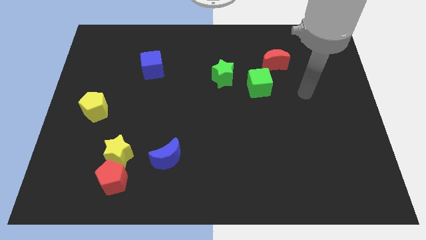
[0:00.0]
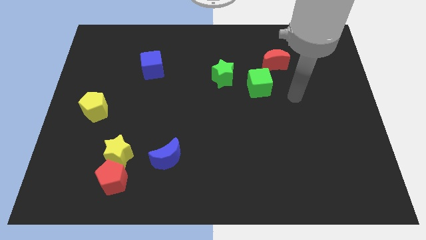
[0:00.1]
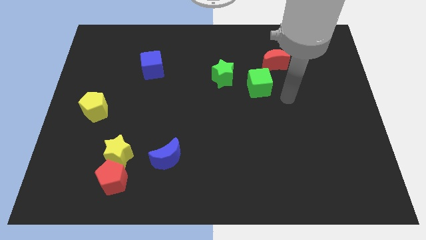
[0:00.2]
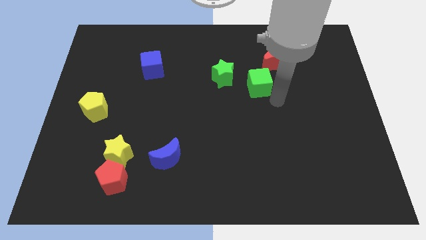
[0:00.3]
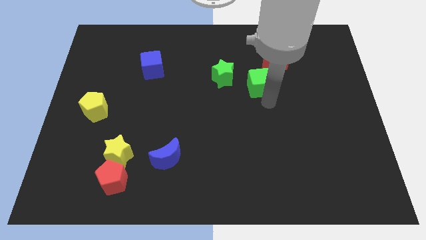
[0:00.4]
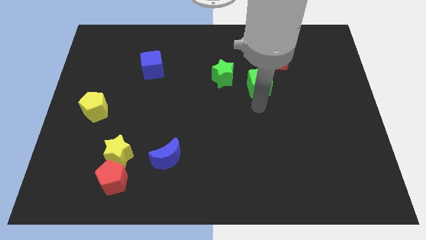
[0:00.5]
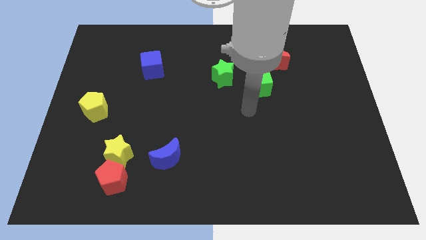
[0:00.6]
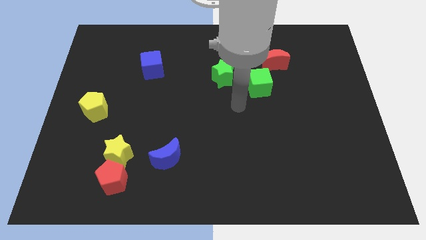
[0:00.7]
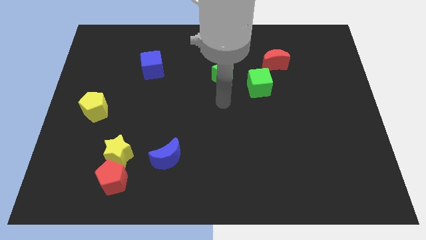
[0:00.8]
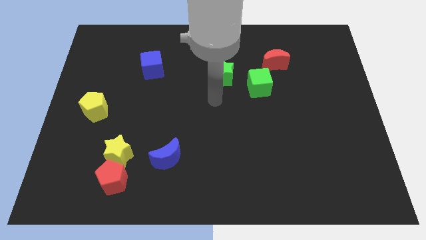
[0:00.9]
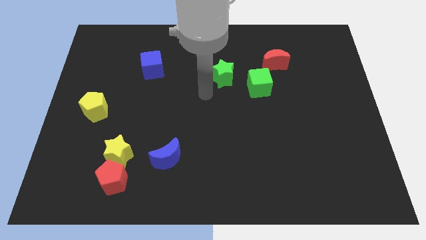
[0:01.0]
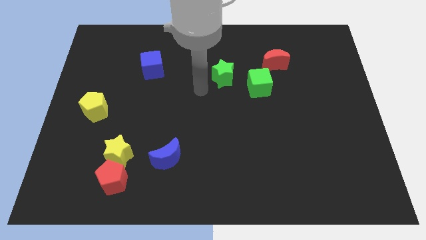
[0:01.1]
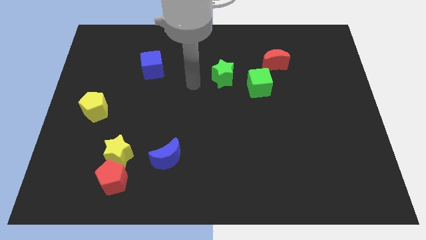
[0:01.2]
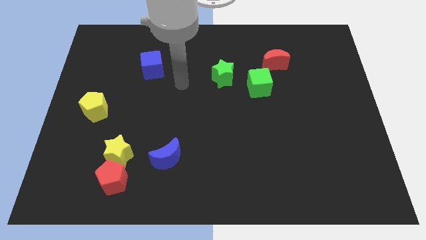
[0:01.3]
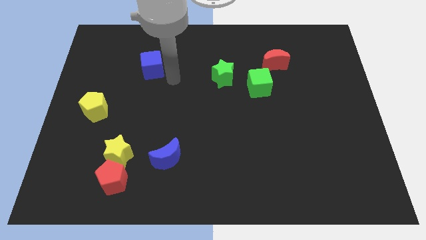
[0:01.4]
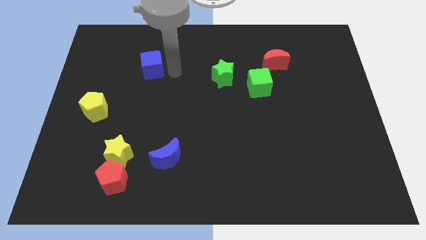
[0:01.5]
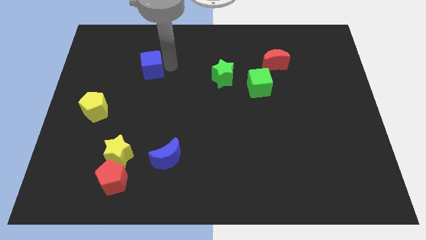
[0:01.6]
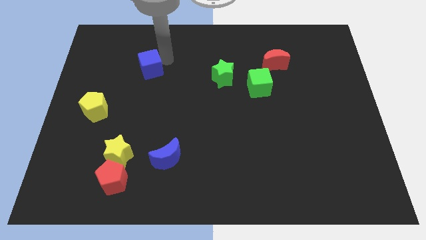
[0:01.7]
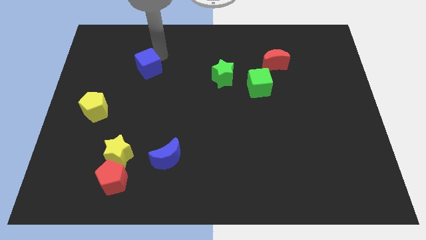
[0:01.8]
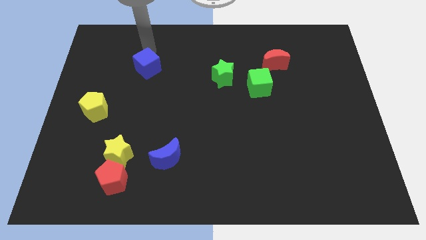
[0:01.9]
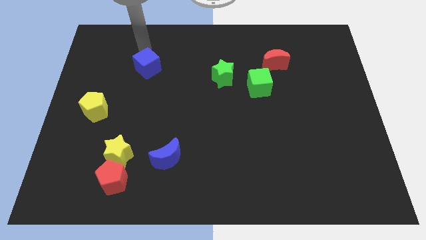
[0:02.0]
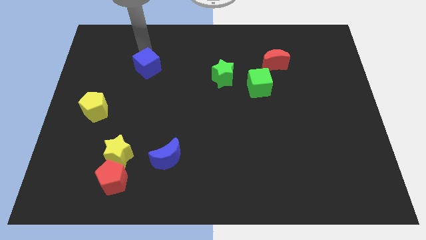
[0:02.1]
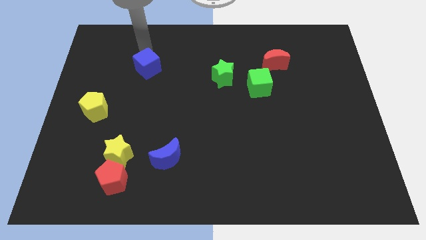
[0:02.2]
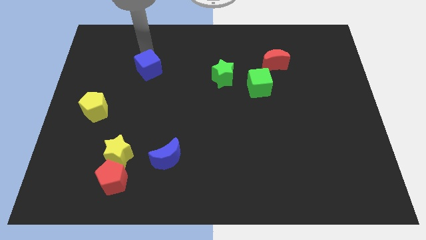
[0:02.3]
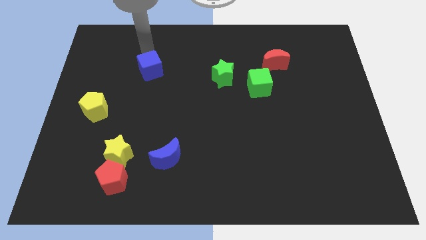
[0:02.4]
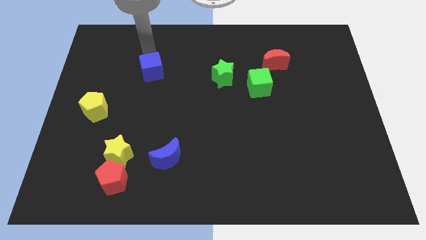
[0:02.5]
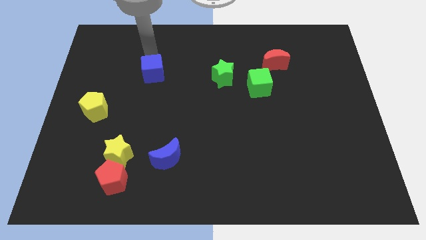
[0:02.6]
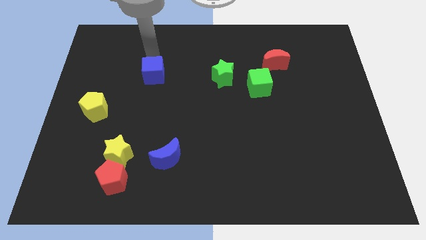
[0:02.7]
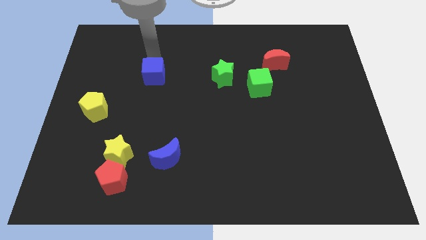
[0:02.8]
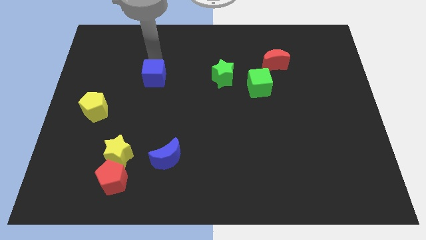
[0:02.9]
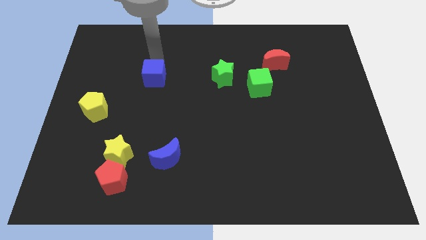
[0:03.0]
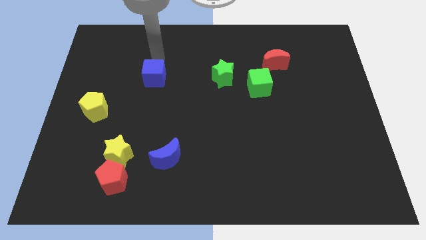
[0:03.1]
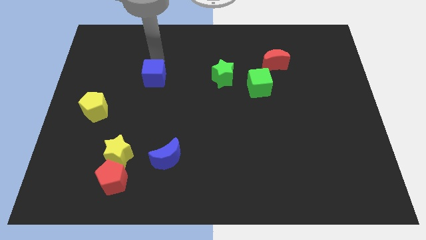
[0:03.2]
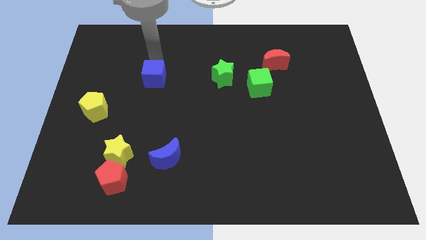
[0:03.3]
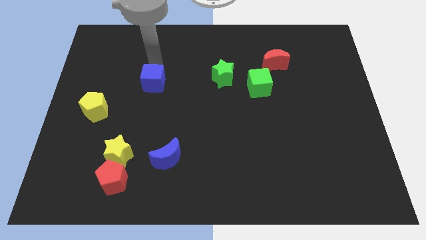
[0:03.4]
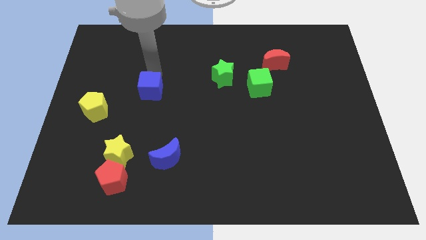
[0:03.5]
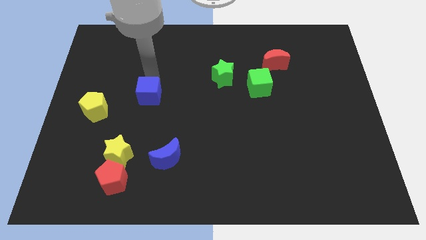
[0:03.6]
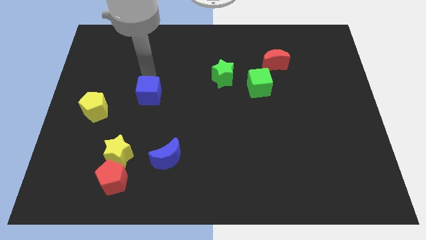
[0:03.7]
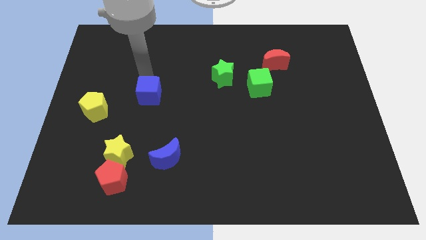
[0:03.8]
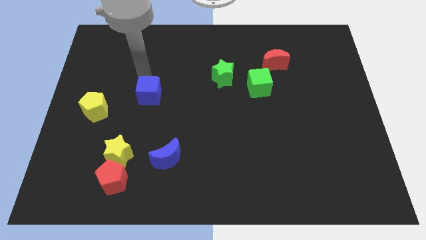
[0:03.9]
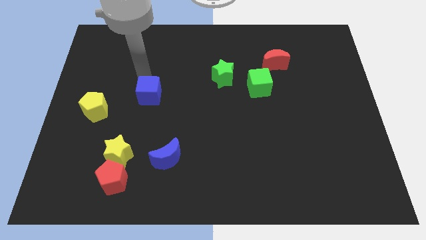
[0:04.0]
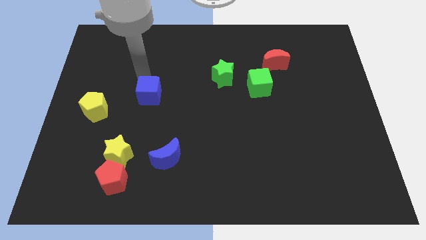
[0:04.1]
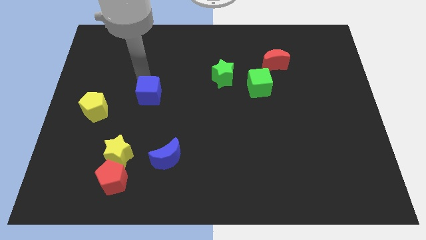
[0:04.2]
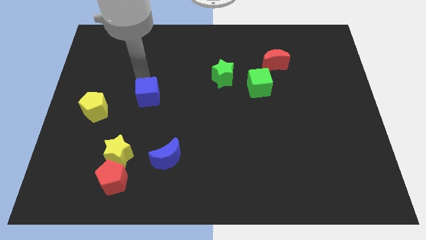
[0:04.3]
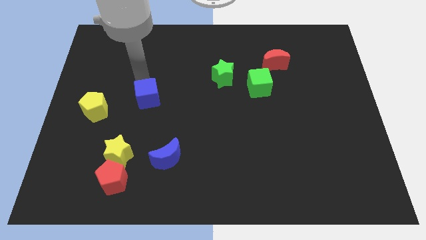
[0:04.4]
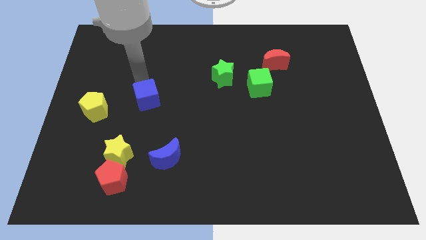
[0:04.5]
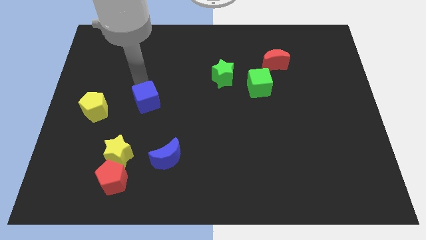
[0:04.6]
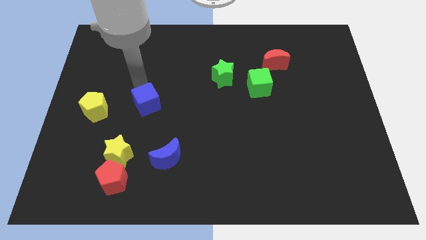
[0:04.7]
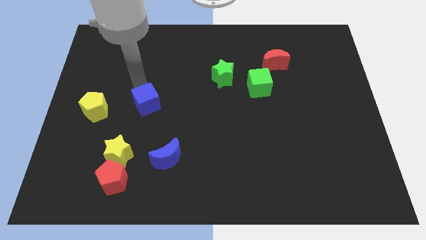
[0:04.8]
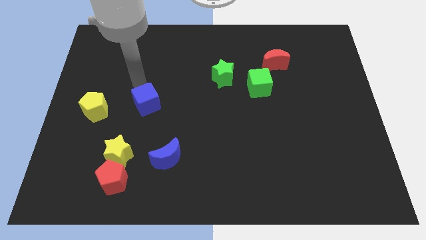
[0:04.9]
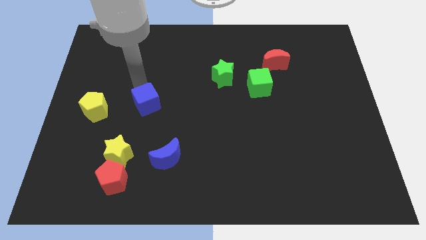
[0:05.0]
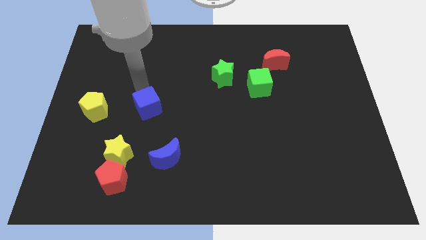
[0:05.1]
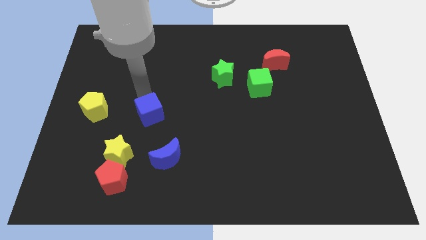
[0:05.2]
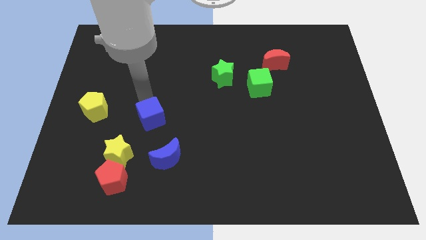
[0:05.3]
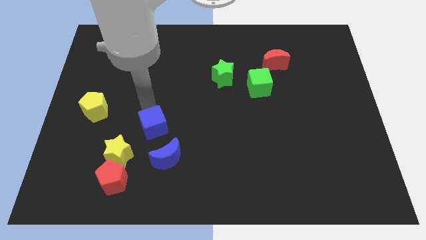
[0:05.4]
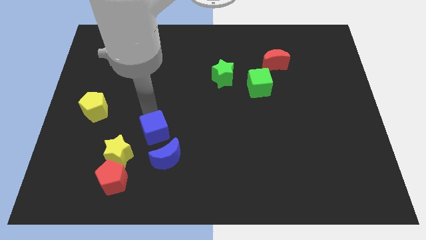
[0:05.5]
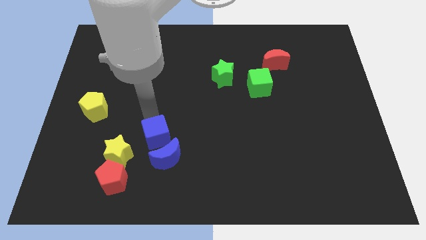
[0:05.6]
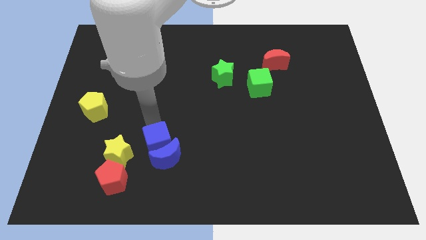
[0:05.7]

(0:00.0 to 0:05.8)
push the blue cube towards the blue moon

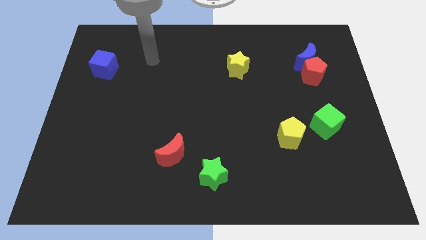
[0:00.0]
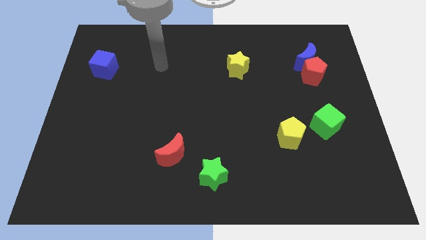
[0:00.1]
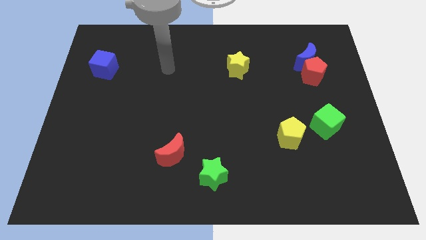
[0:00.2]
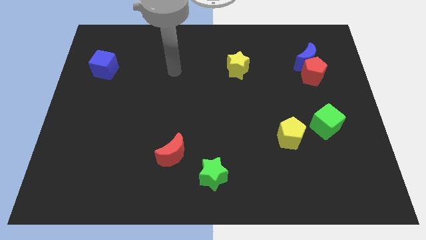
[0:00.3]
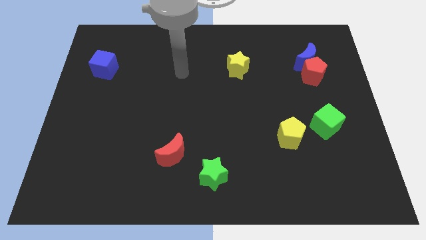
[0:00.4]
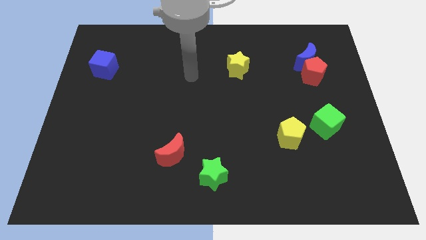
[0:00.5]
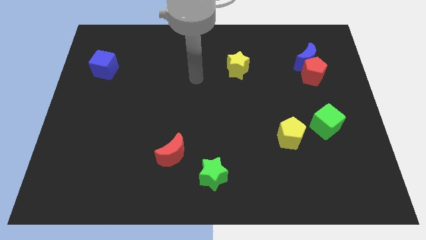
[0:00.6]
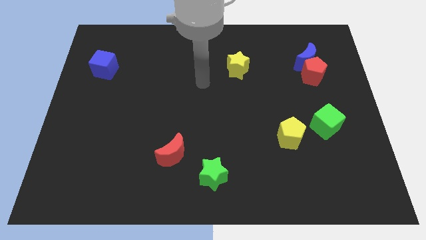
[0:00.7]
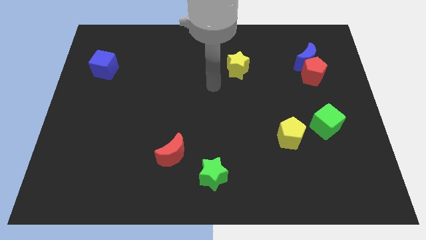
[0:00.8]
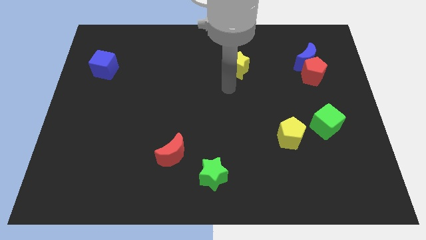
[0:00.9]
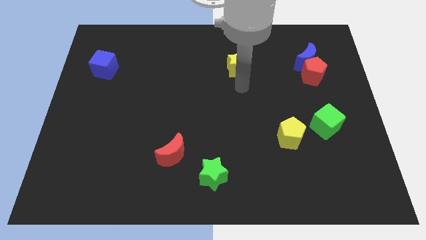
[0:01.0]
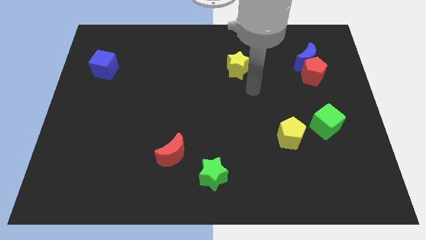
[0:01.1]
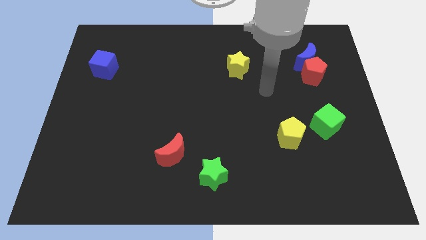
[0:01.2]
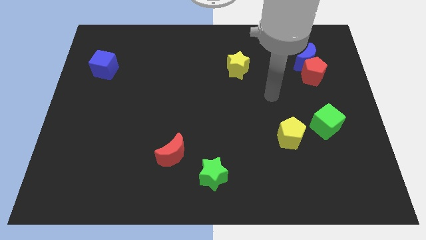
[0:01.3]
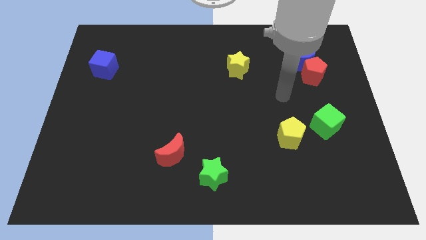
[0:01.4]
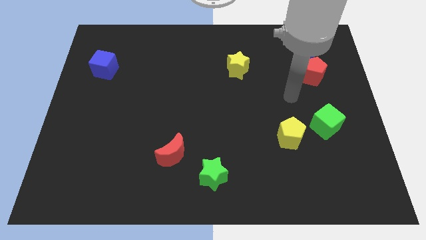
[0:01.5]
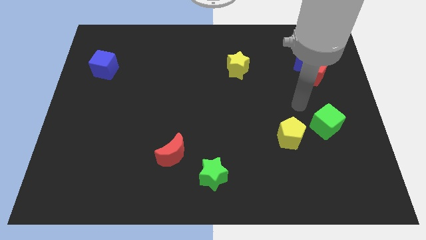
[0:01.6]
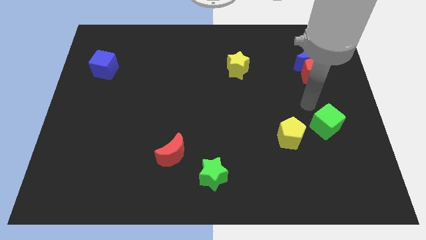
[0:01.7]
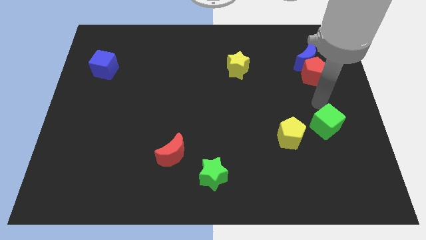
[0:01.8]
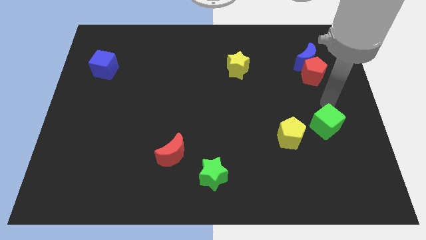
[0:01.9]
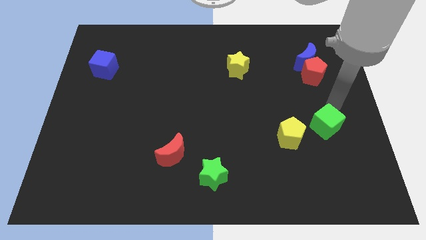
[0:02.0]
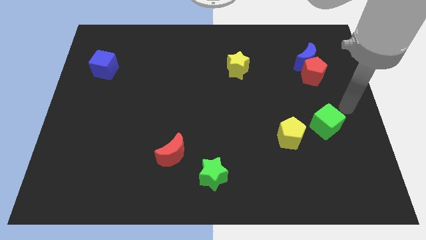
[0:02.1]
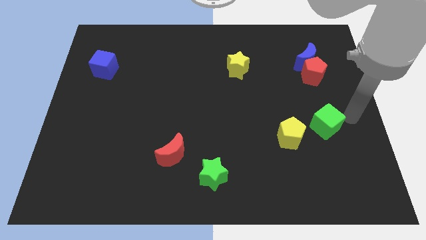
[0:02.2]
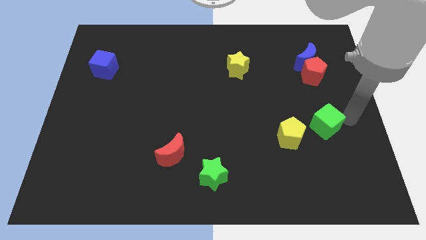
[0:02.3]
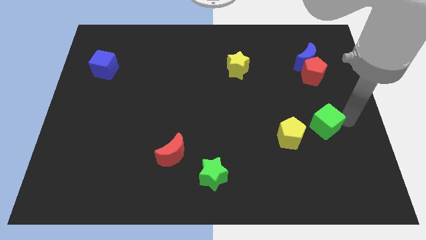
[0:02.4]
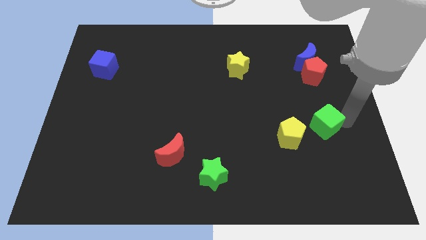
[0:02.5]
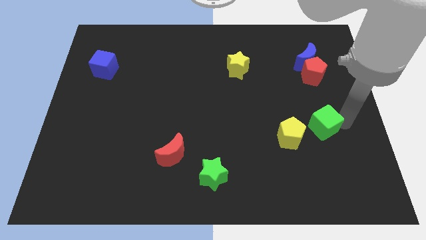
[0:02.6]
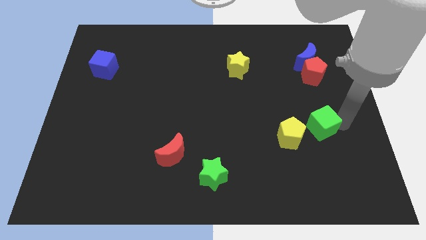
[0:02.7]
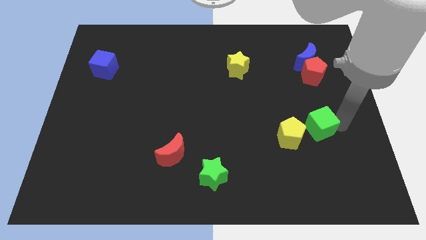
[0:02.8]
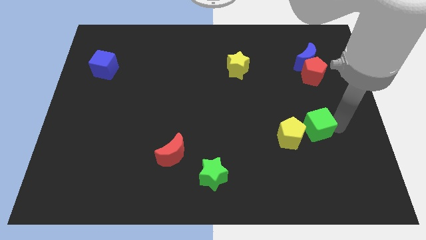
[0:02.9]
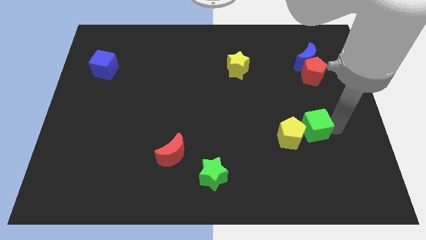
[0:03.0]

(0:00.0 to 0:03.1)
move the green cube next to the yellow pentagon
